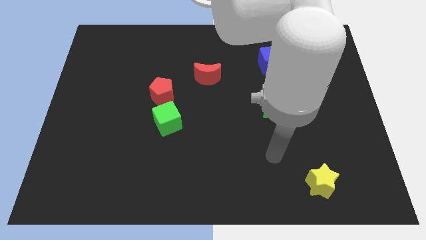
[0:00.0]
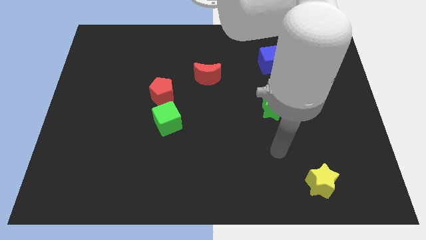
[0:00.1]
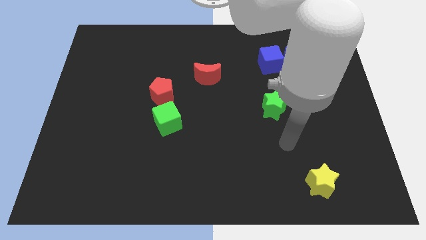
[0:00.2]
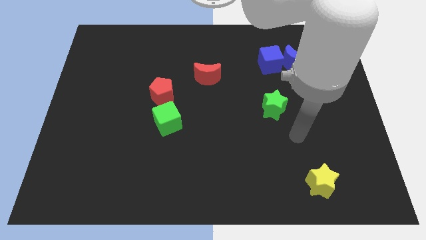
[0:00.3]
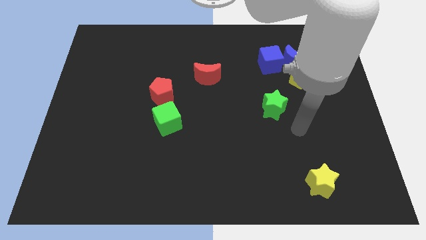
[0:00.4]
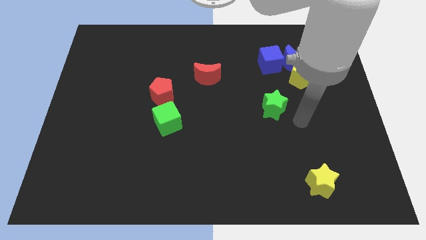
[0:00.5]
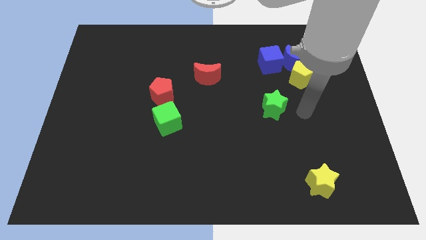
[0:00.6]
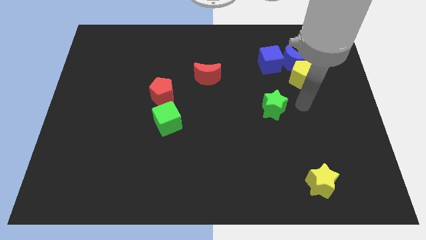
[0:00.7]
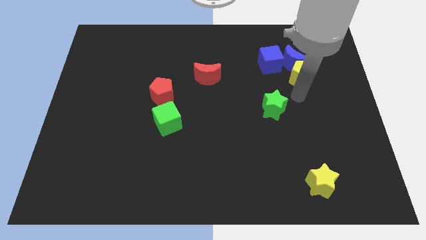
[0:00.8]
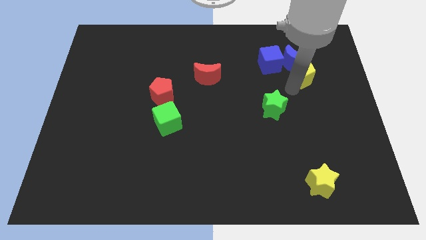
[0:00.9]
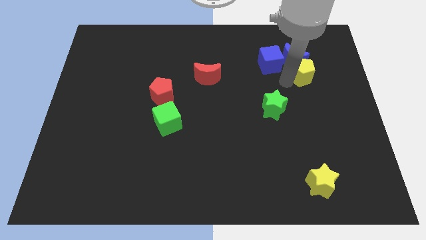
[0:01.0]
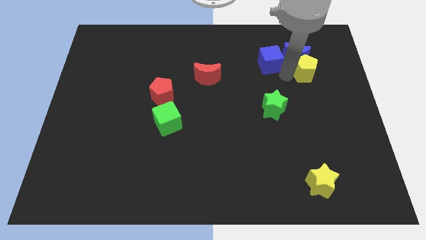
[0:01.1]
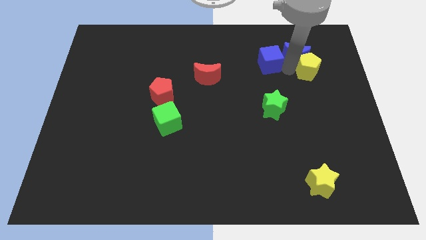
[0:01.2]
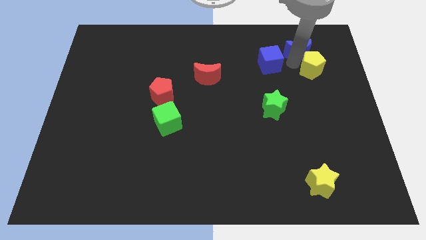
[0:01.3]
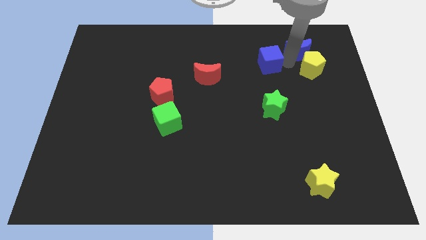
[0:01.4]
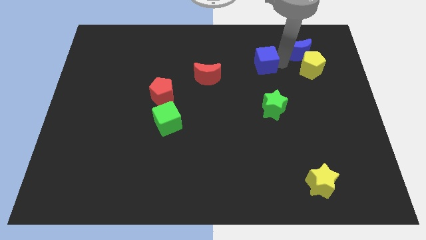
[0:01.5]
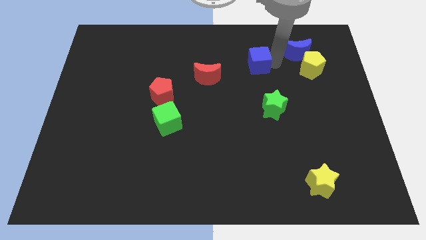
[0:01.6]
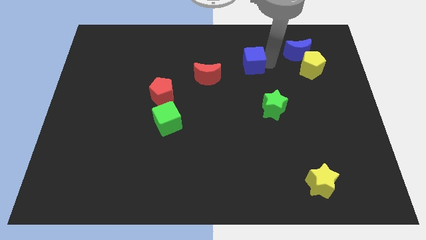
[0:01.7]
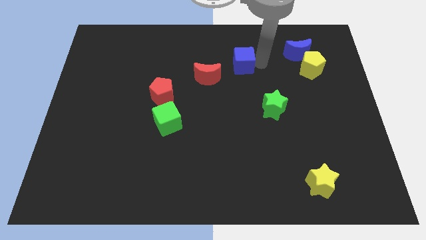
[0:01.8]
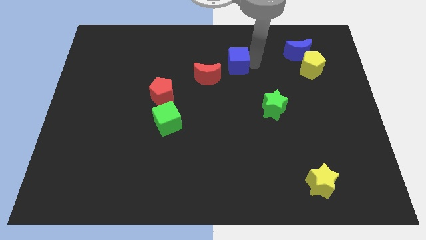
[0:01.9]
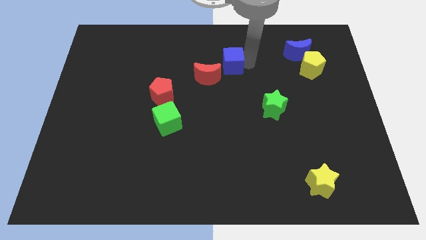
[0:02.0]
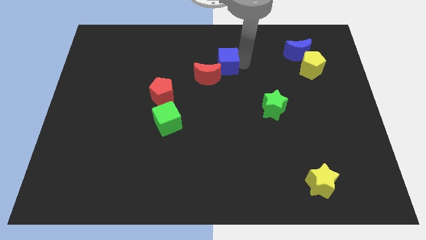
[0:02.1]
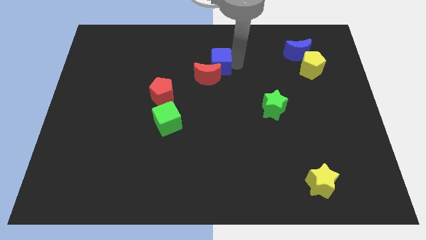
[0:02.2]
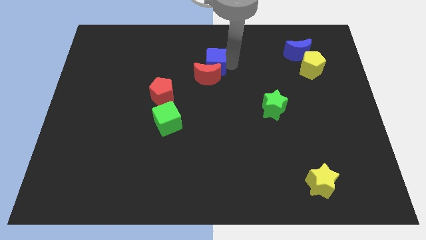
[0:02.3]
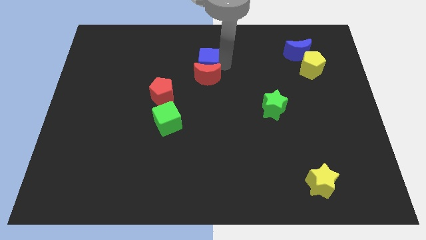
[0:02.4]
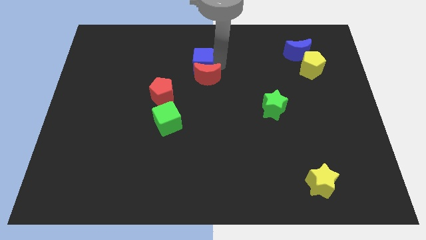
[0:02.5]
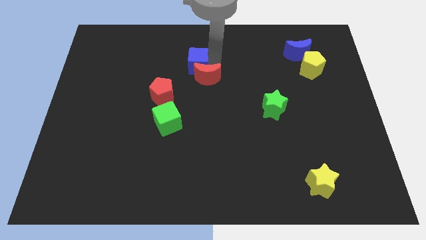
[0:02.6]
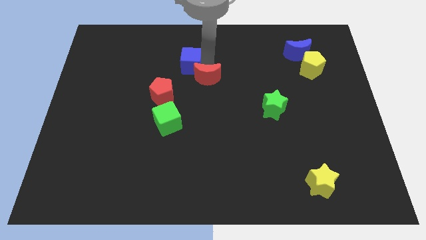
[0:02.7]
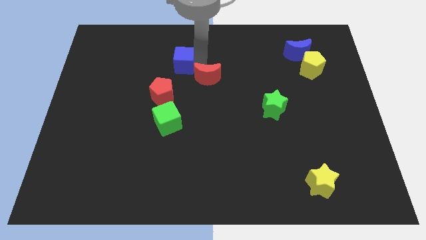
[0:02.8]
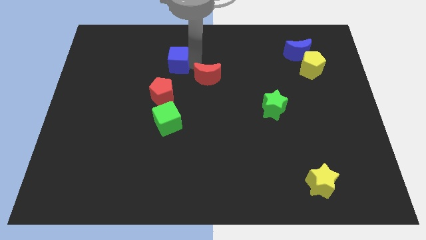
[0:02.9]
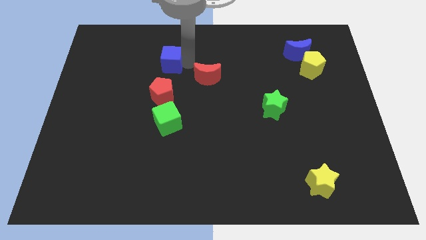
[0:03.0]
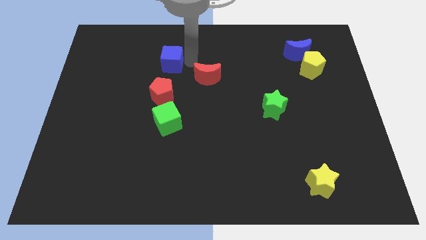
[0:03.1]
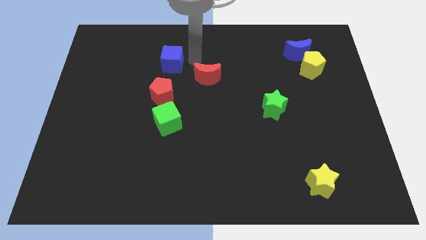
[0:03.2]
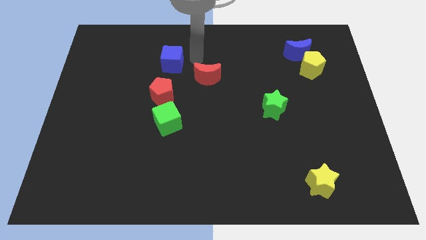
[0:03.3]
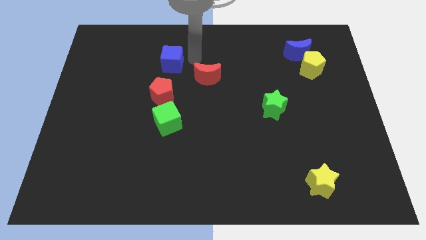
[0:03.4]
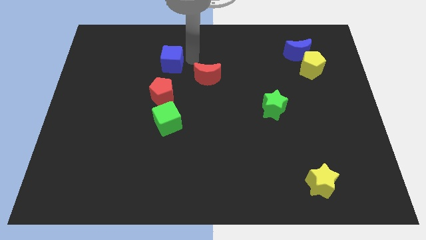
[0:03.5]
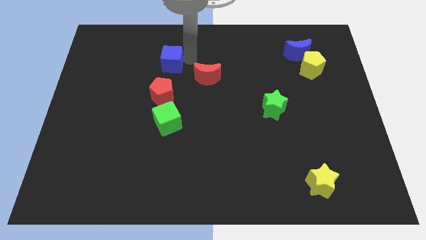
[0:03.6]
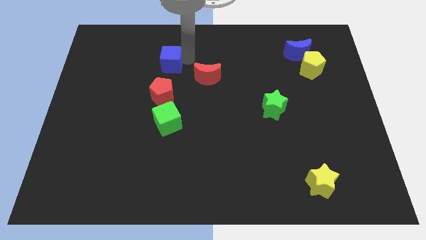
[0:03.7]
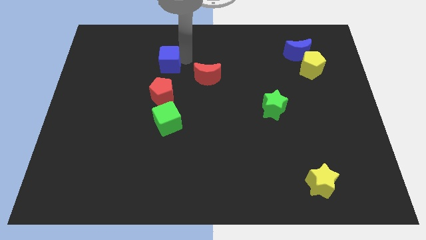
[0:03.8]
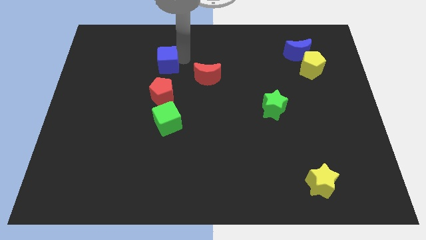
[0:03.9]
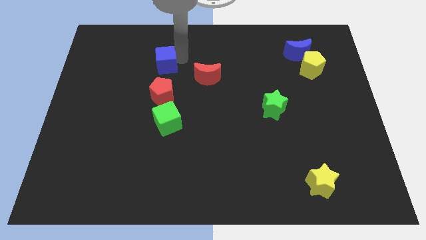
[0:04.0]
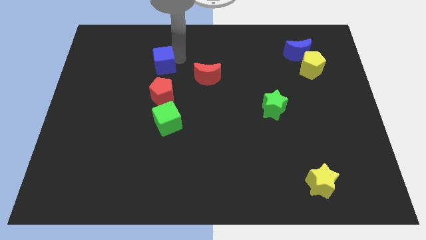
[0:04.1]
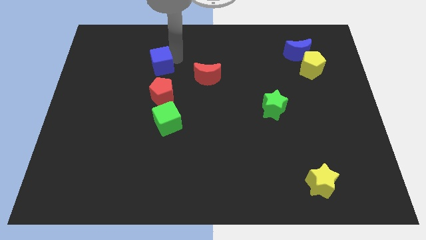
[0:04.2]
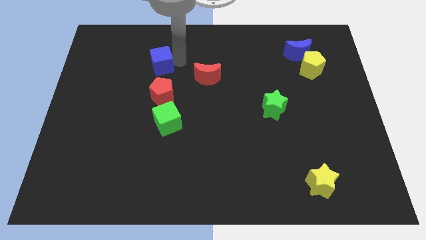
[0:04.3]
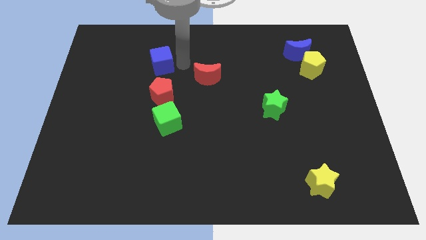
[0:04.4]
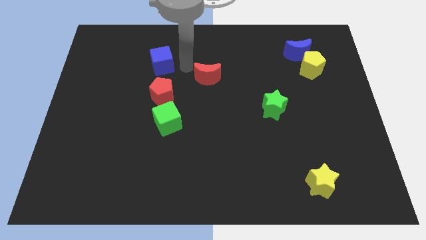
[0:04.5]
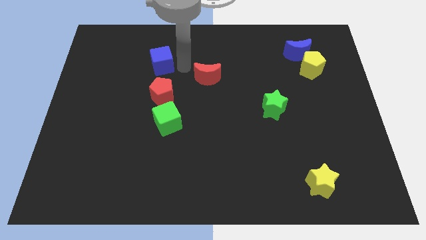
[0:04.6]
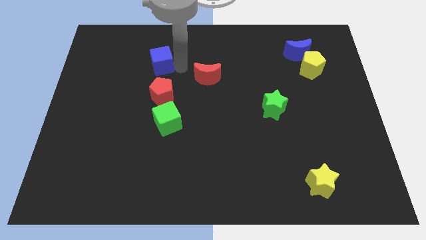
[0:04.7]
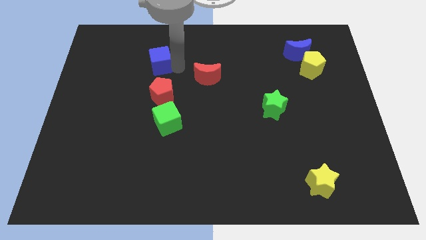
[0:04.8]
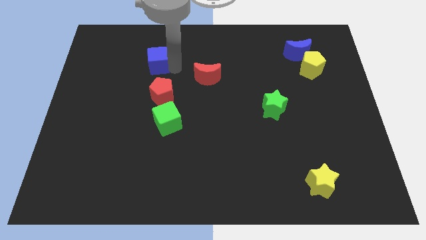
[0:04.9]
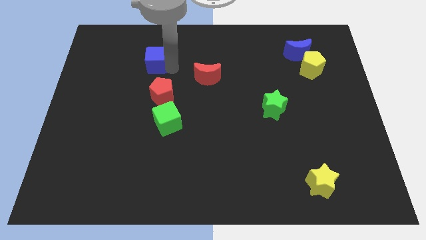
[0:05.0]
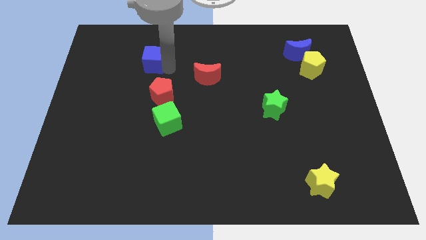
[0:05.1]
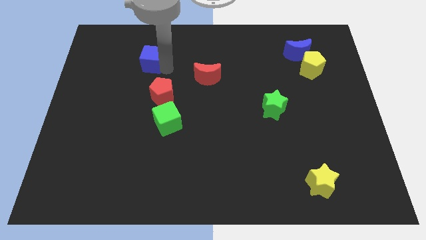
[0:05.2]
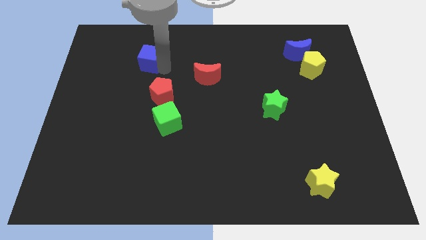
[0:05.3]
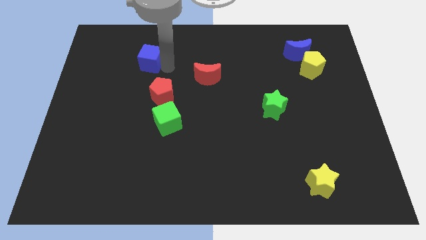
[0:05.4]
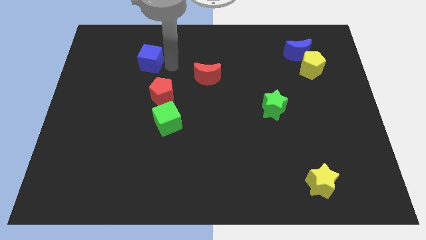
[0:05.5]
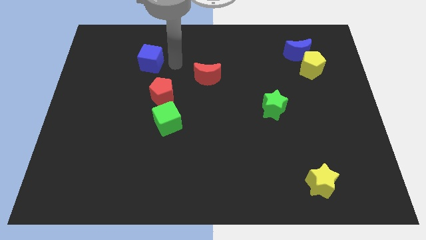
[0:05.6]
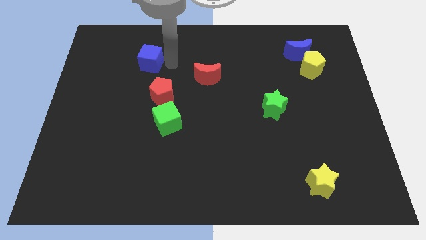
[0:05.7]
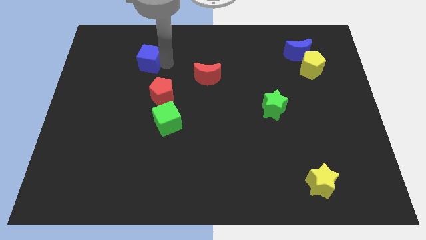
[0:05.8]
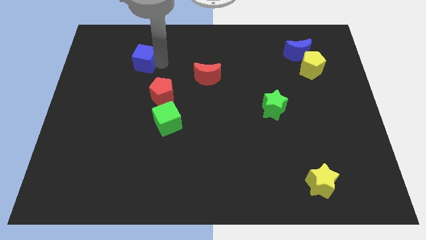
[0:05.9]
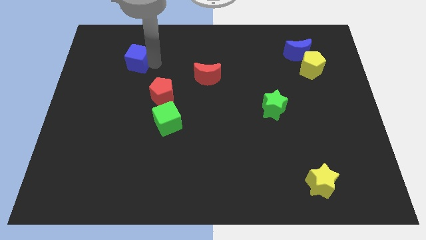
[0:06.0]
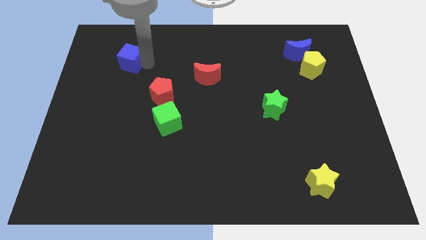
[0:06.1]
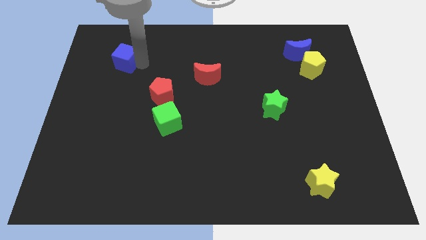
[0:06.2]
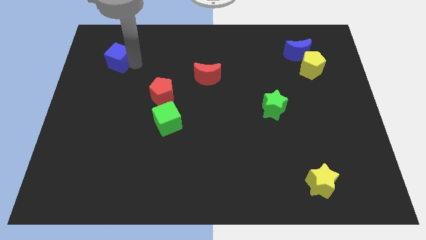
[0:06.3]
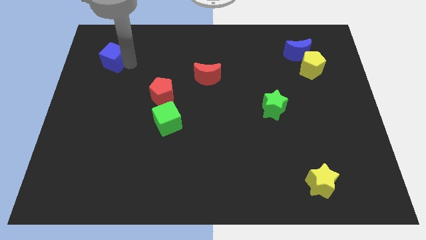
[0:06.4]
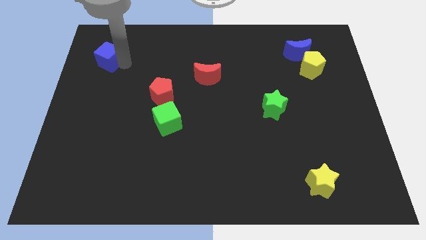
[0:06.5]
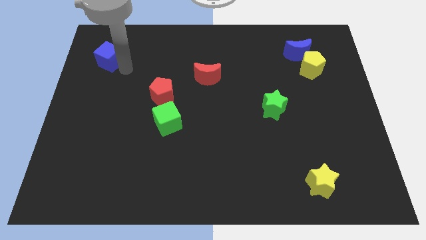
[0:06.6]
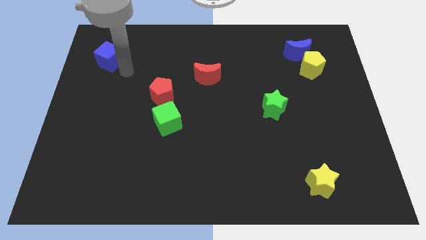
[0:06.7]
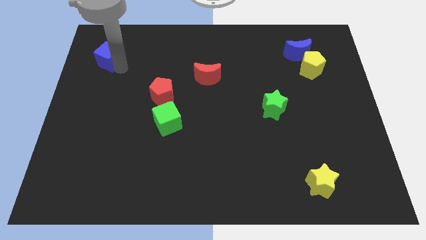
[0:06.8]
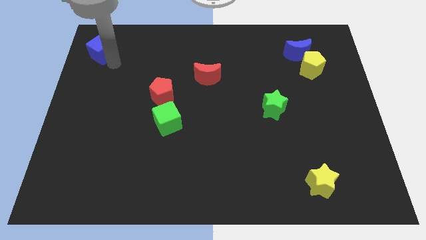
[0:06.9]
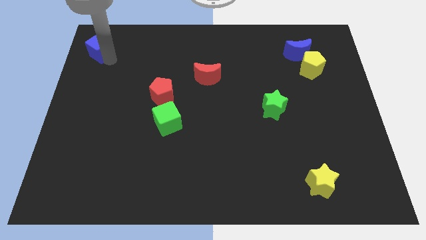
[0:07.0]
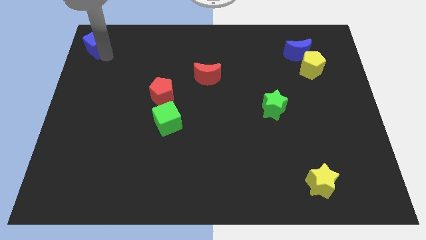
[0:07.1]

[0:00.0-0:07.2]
slide the blue cube to the top left corner
